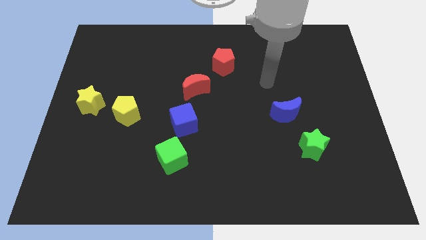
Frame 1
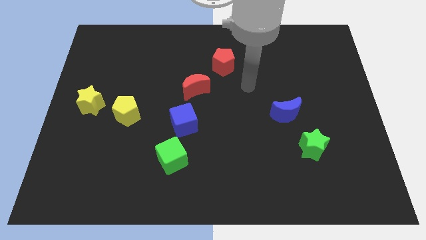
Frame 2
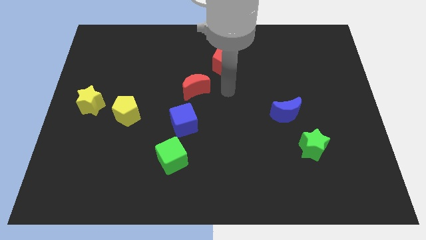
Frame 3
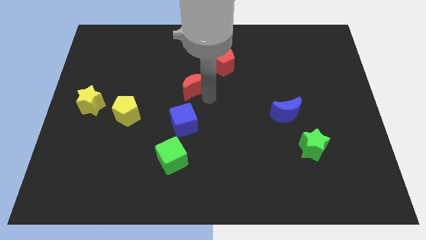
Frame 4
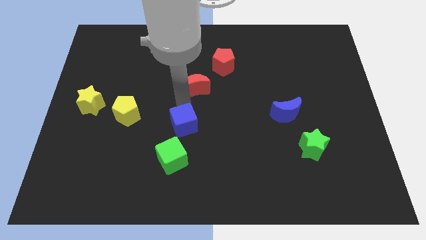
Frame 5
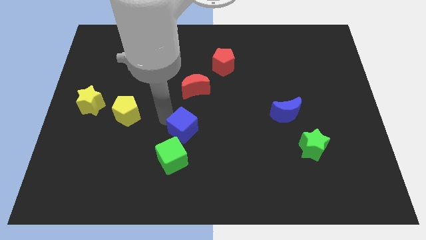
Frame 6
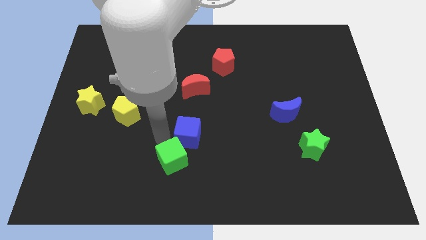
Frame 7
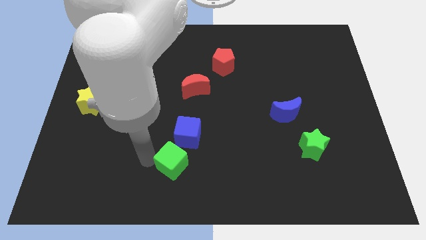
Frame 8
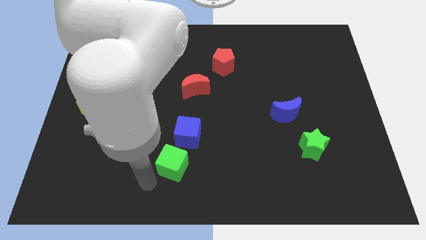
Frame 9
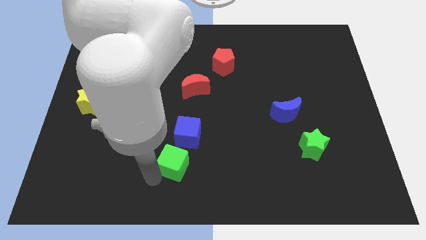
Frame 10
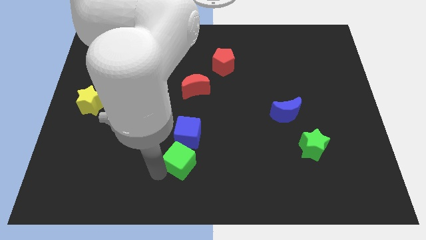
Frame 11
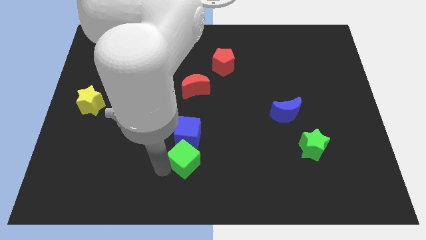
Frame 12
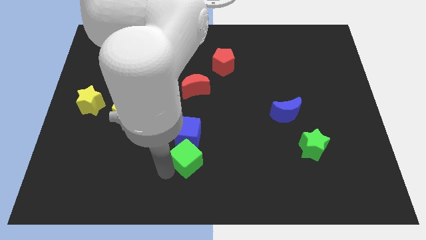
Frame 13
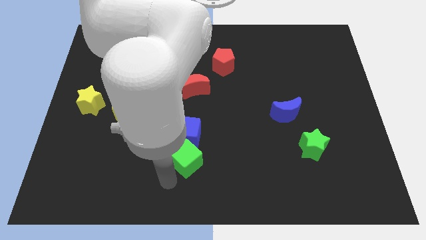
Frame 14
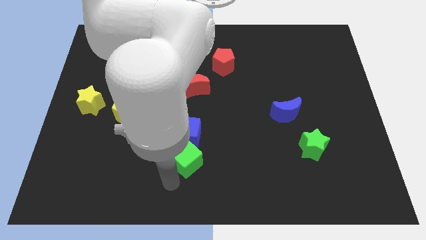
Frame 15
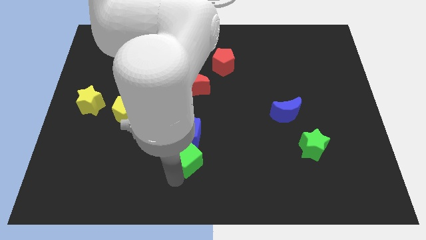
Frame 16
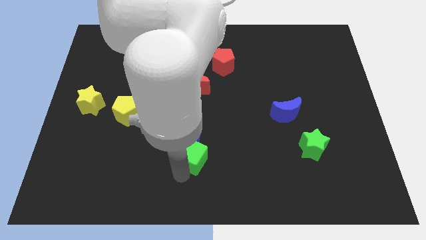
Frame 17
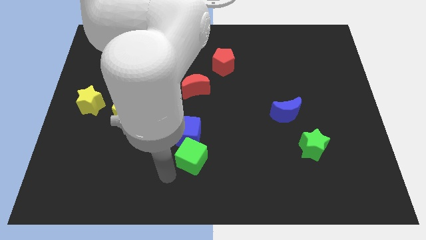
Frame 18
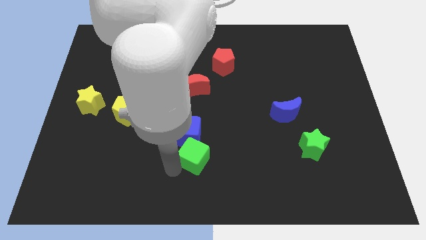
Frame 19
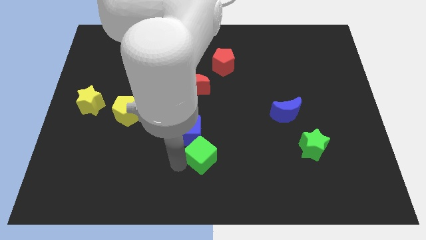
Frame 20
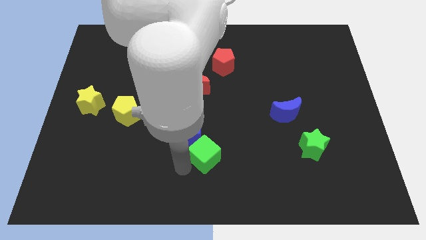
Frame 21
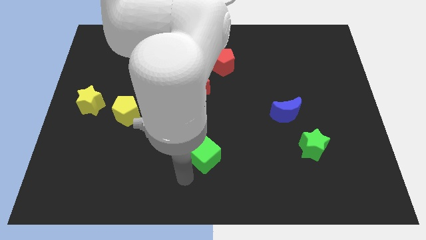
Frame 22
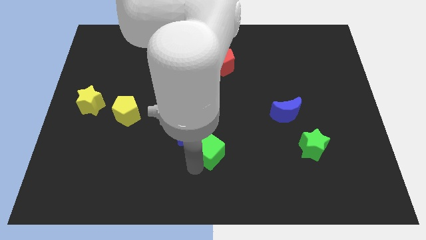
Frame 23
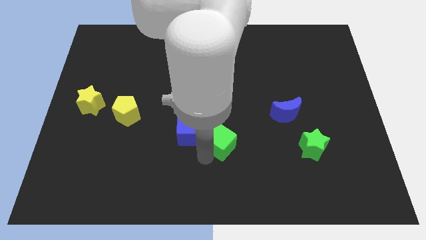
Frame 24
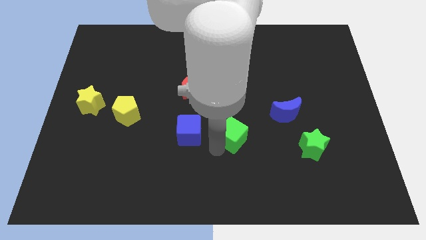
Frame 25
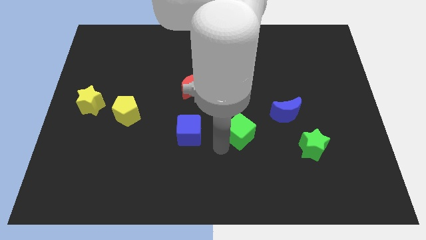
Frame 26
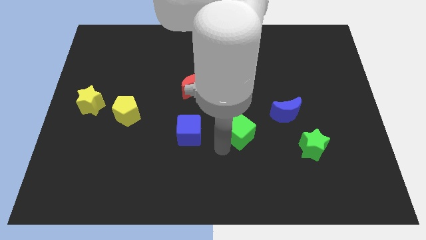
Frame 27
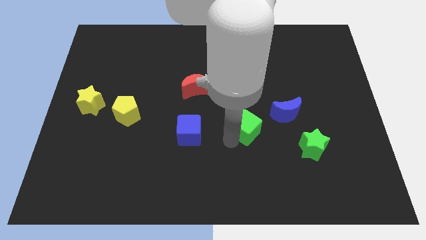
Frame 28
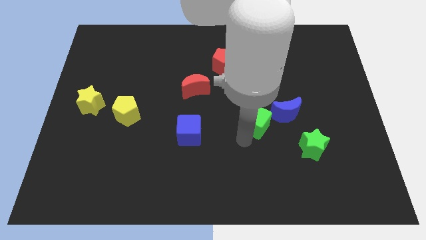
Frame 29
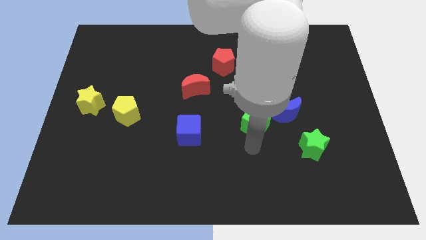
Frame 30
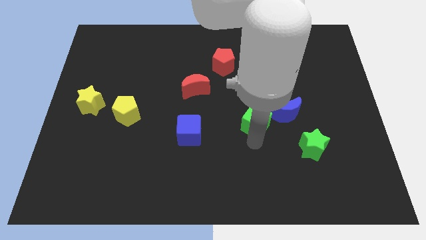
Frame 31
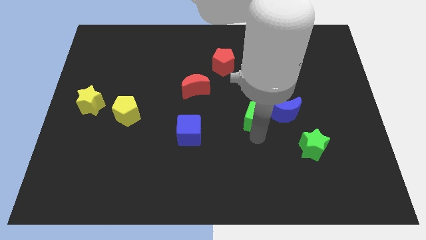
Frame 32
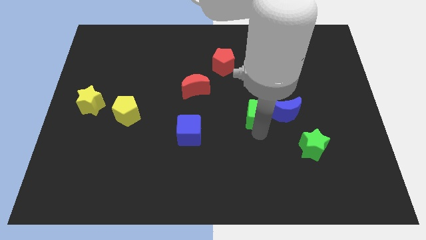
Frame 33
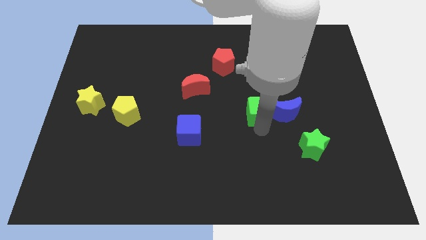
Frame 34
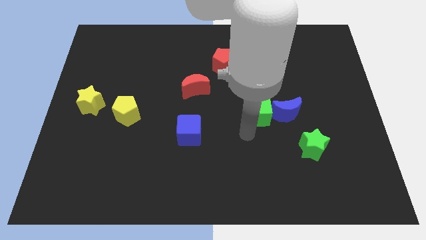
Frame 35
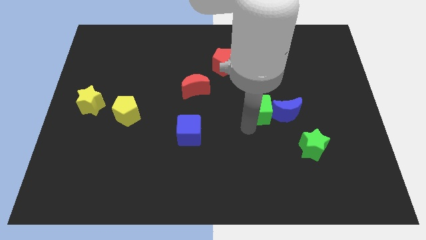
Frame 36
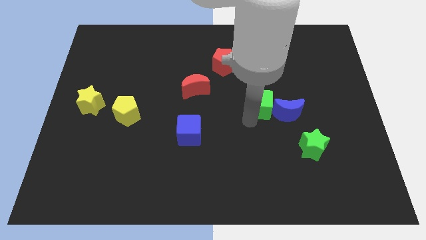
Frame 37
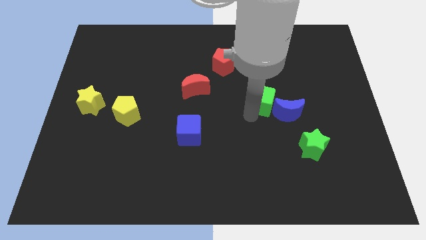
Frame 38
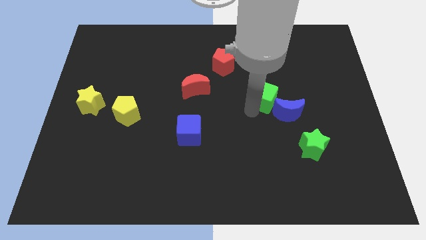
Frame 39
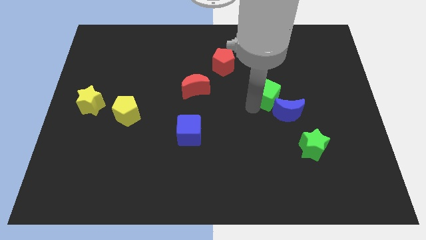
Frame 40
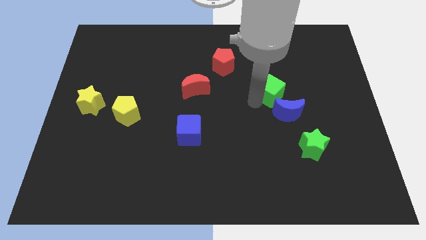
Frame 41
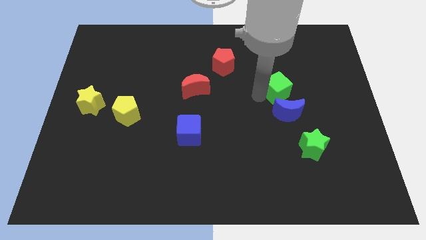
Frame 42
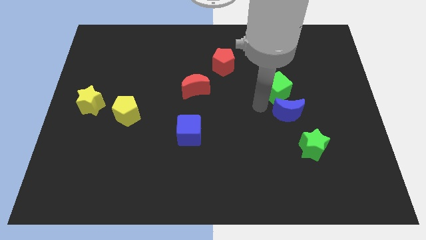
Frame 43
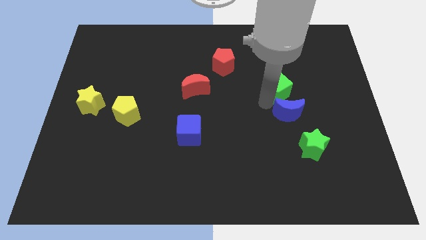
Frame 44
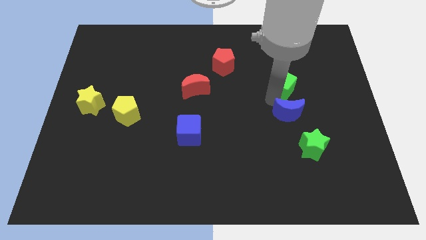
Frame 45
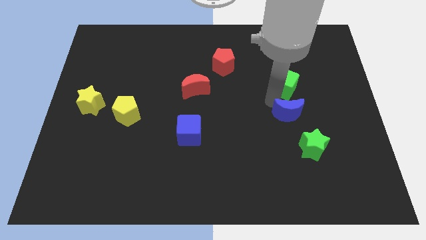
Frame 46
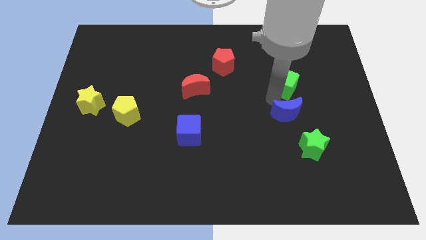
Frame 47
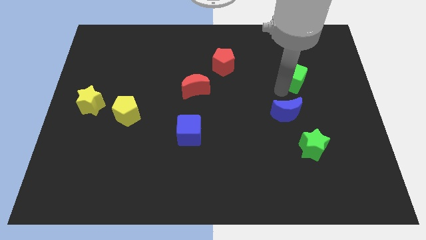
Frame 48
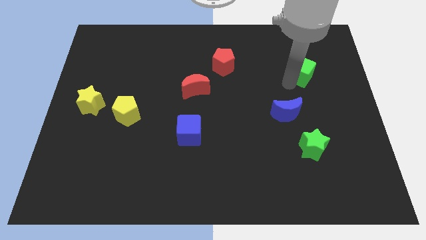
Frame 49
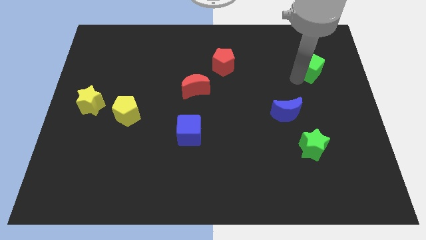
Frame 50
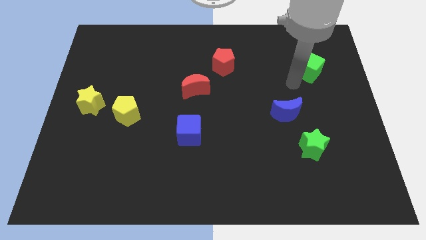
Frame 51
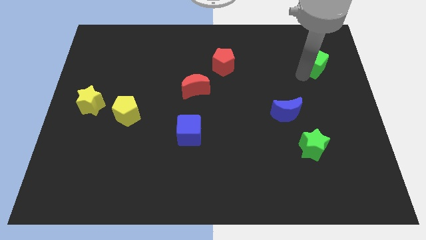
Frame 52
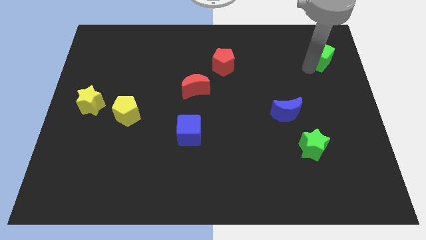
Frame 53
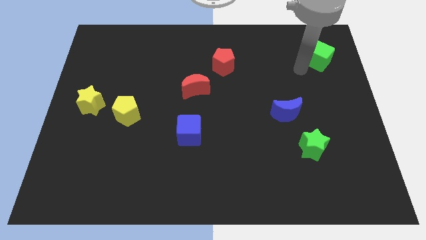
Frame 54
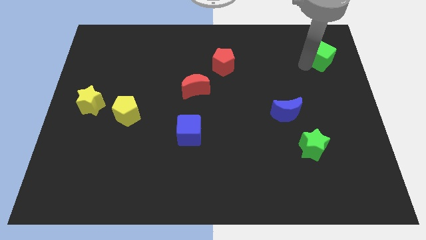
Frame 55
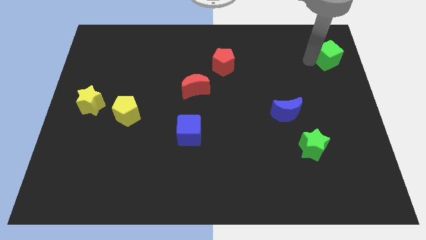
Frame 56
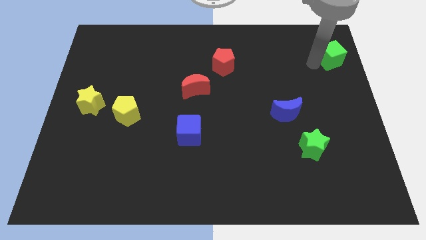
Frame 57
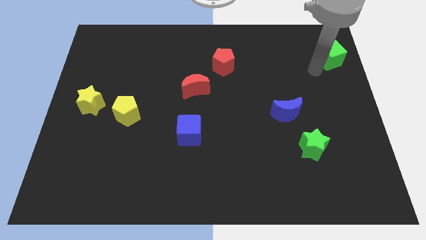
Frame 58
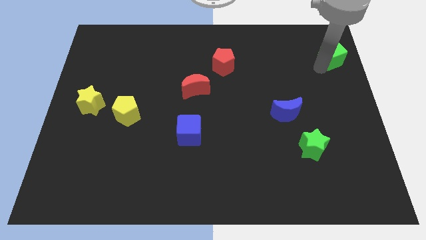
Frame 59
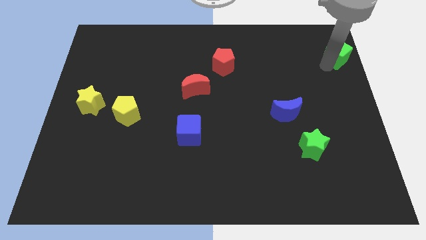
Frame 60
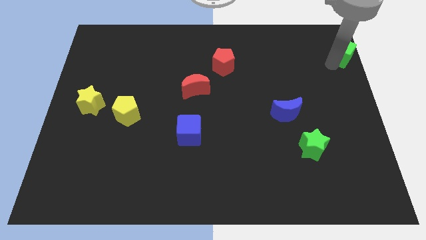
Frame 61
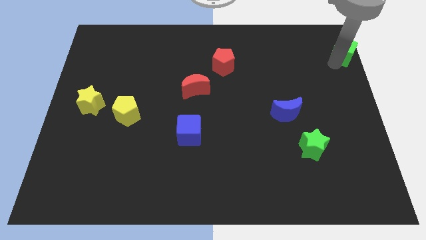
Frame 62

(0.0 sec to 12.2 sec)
slide the green cube to the top right corner

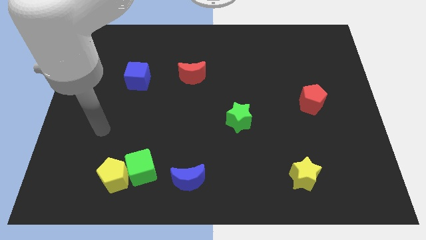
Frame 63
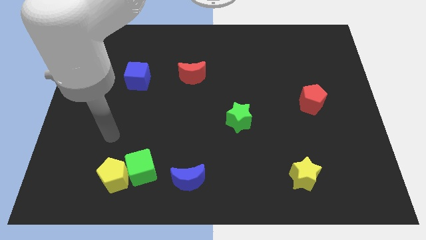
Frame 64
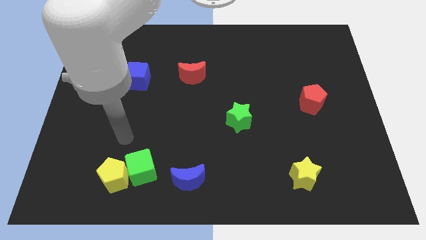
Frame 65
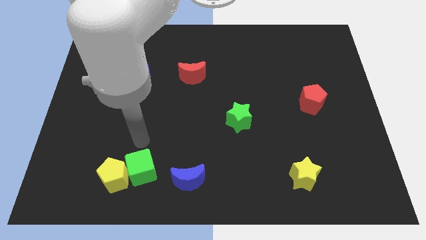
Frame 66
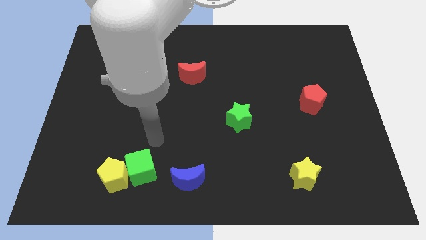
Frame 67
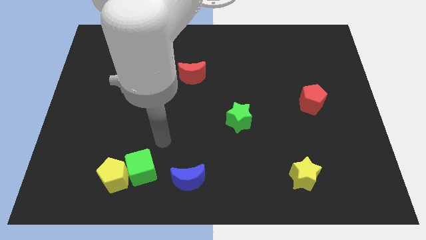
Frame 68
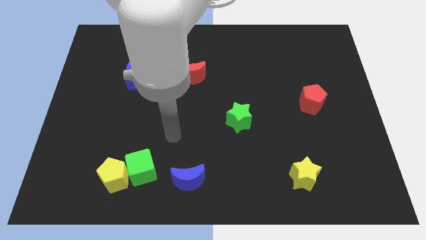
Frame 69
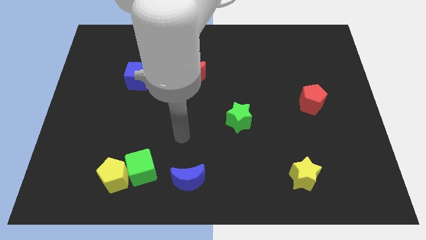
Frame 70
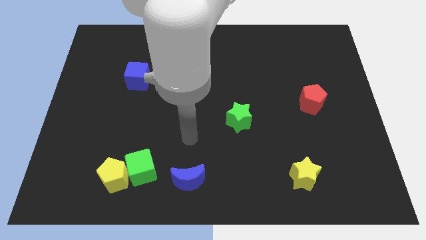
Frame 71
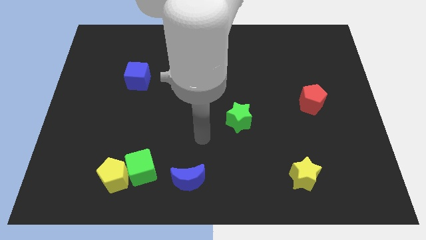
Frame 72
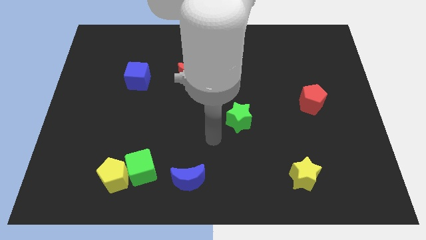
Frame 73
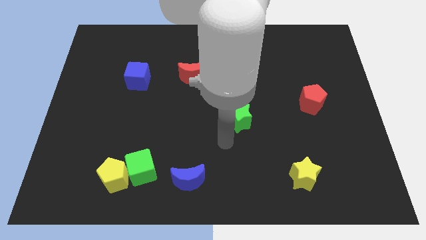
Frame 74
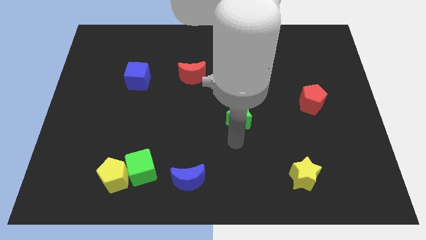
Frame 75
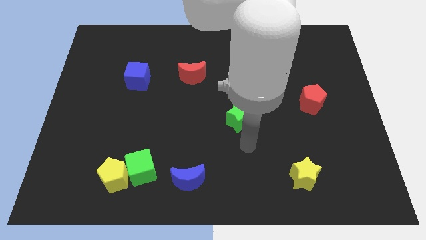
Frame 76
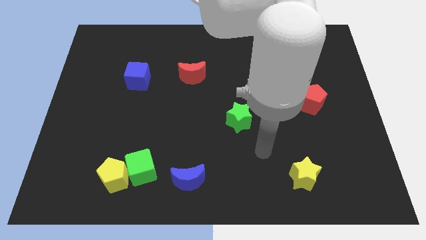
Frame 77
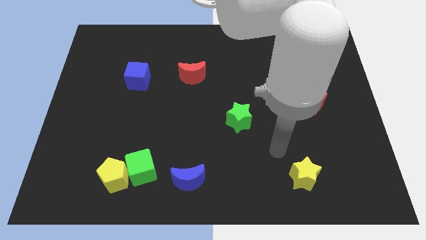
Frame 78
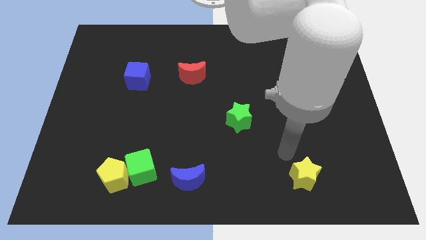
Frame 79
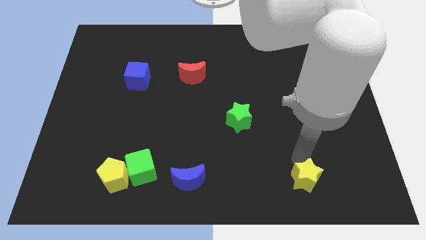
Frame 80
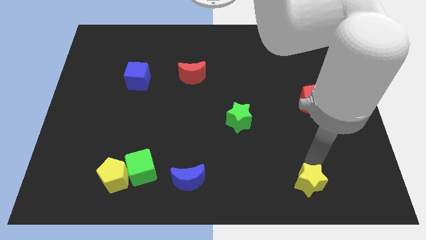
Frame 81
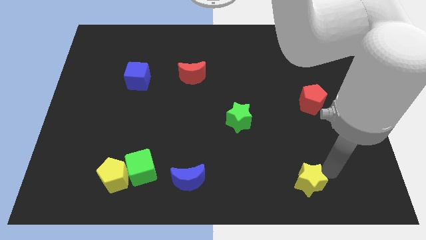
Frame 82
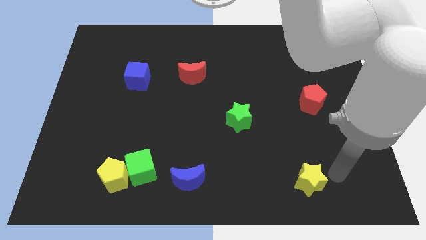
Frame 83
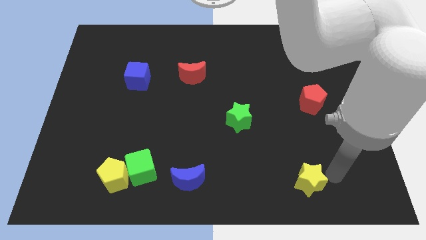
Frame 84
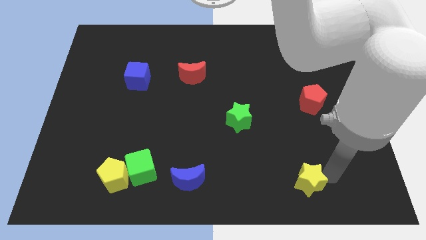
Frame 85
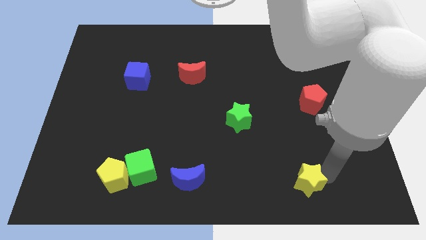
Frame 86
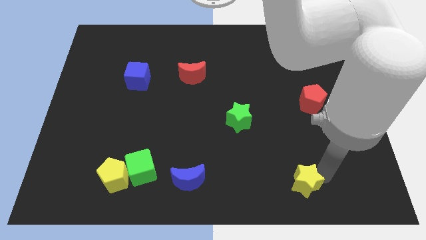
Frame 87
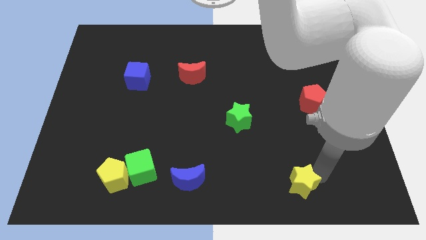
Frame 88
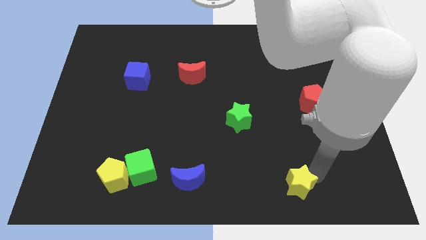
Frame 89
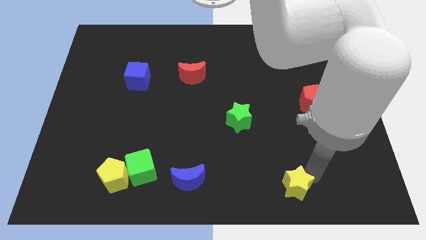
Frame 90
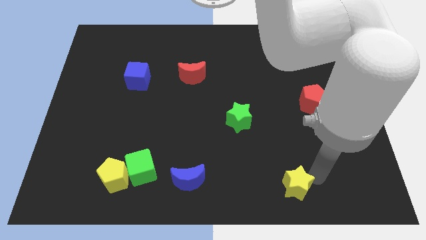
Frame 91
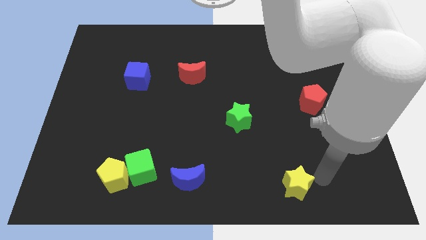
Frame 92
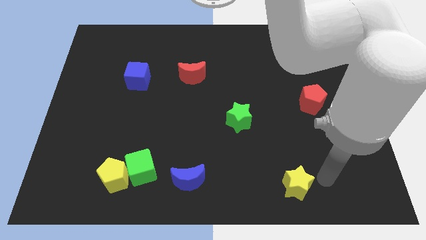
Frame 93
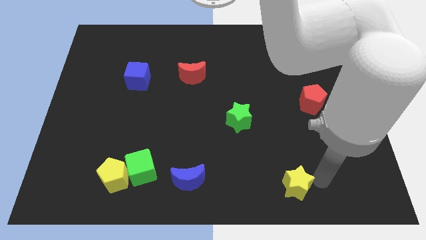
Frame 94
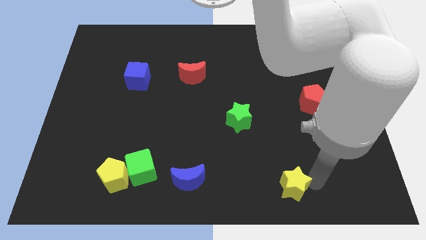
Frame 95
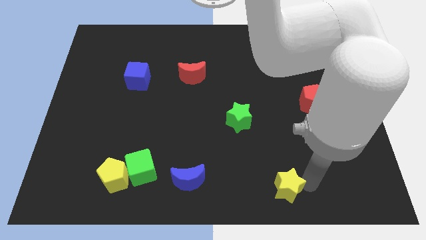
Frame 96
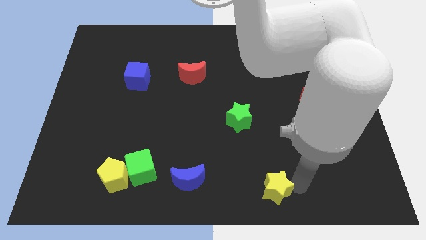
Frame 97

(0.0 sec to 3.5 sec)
move the yellow star to the bottom side
